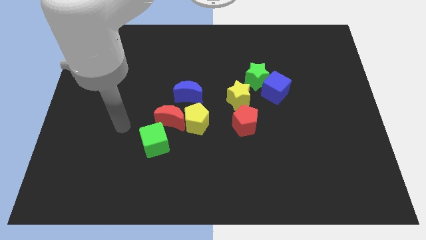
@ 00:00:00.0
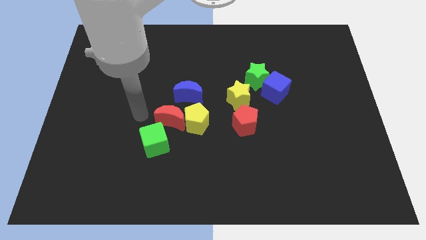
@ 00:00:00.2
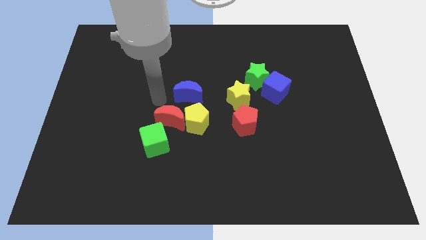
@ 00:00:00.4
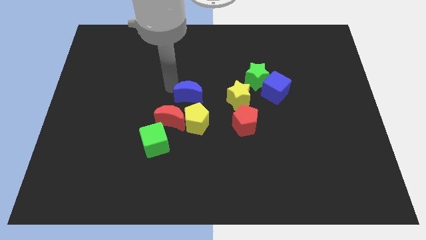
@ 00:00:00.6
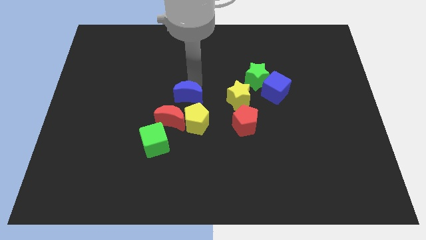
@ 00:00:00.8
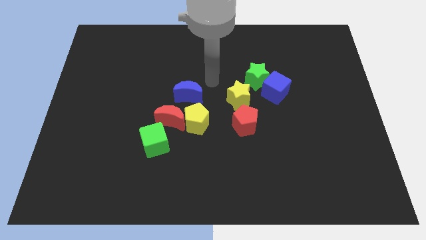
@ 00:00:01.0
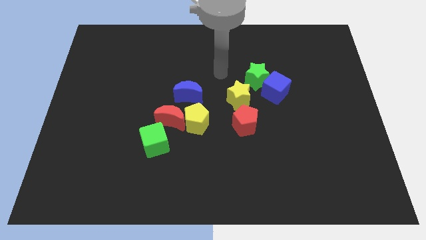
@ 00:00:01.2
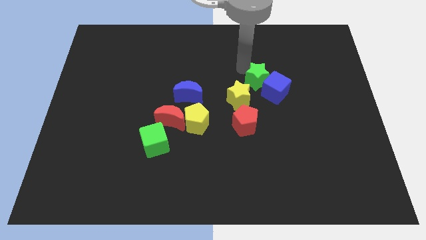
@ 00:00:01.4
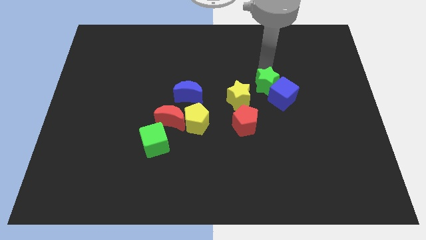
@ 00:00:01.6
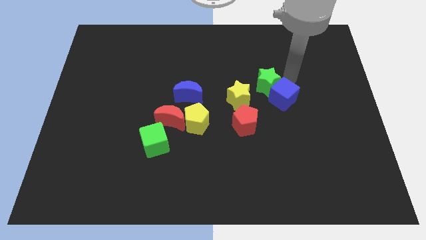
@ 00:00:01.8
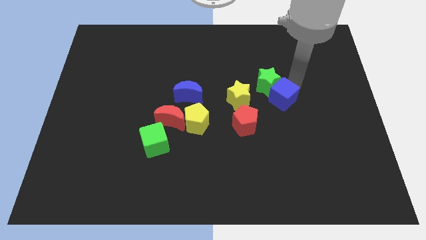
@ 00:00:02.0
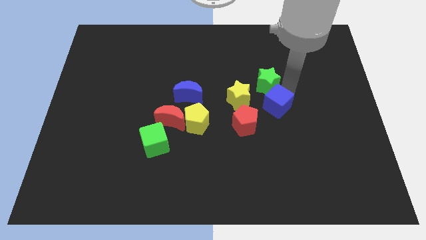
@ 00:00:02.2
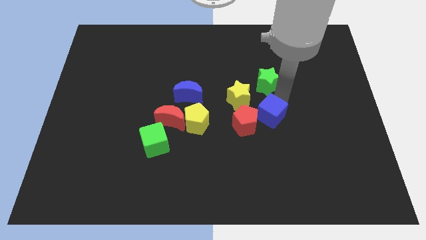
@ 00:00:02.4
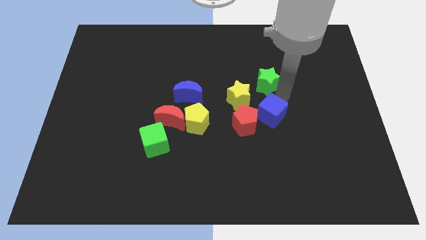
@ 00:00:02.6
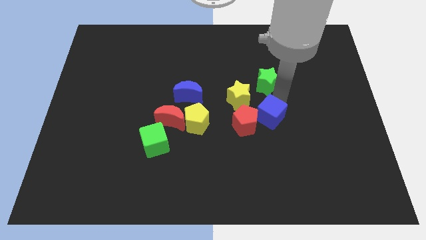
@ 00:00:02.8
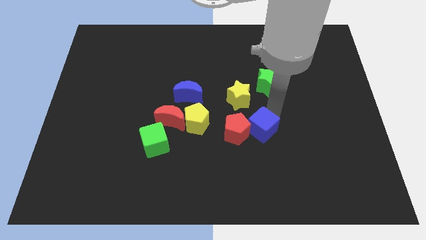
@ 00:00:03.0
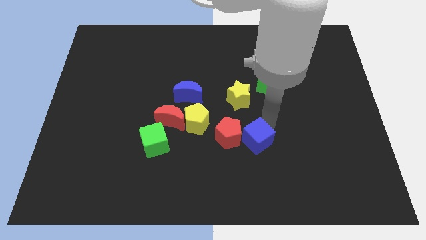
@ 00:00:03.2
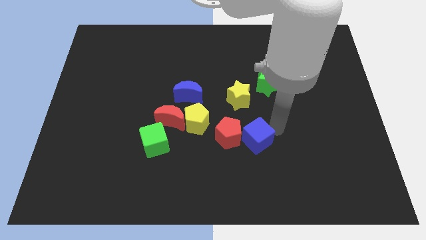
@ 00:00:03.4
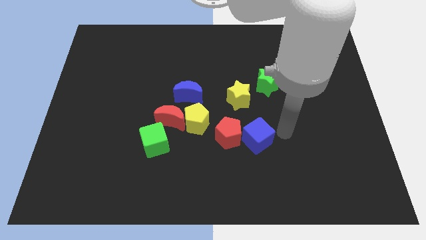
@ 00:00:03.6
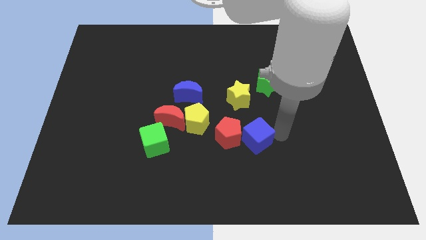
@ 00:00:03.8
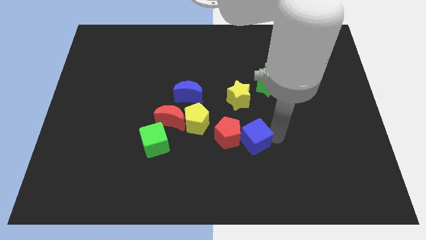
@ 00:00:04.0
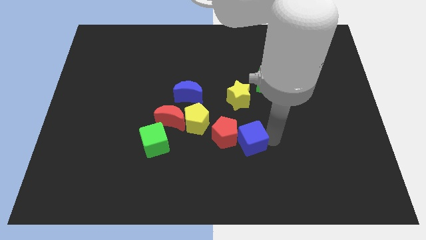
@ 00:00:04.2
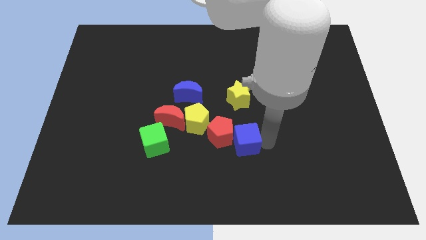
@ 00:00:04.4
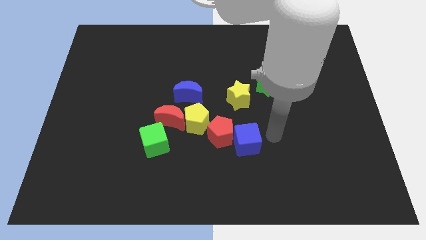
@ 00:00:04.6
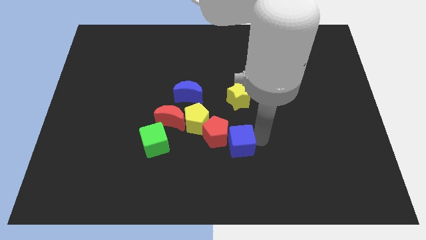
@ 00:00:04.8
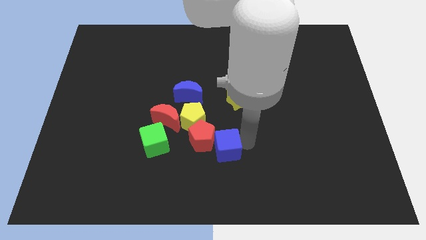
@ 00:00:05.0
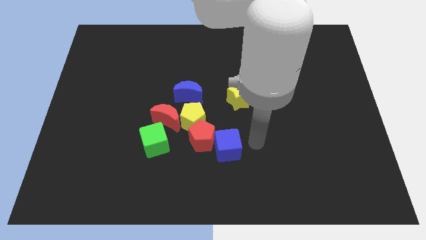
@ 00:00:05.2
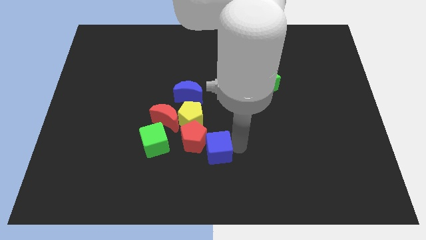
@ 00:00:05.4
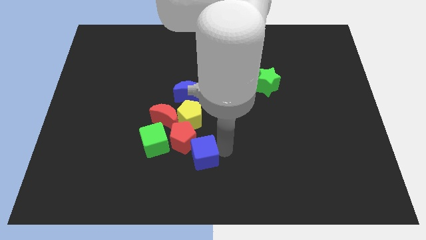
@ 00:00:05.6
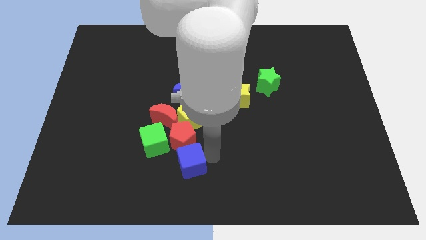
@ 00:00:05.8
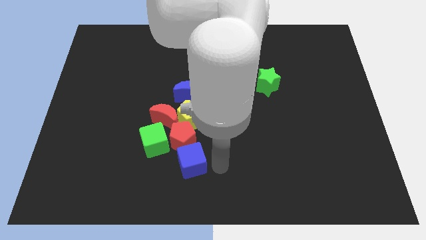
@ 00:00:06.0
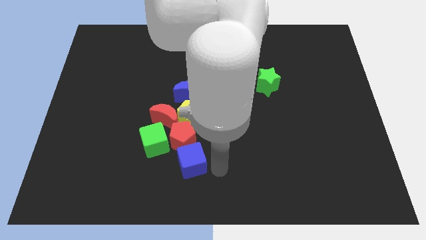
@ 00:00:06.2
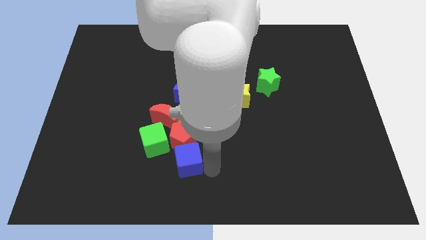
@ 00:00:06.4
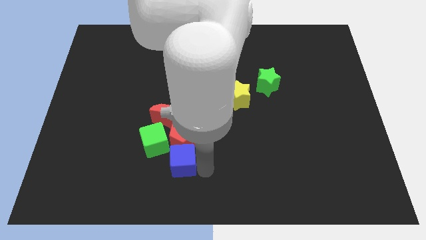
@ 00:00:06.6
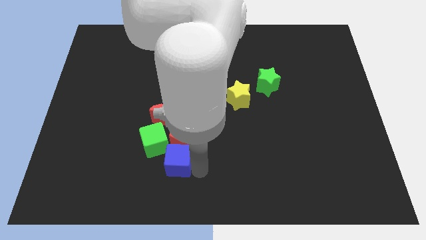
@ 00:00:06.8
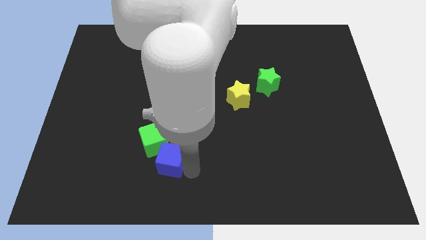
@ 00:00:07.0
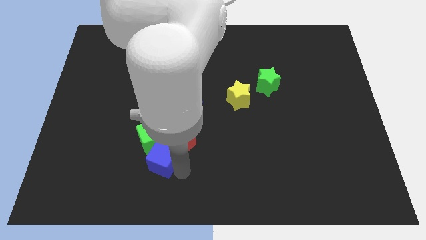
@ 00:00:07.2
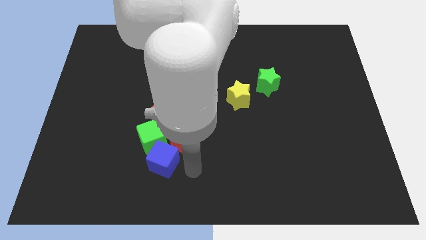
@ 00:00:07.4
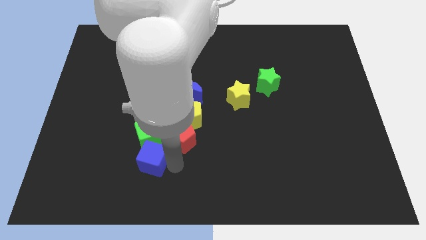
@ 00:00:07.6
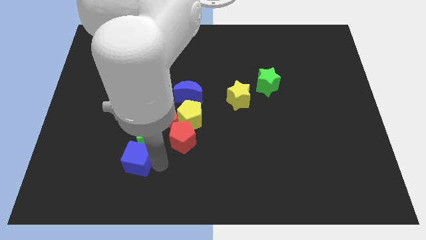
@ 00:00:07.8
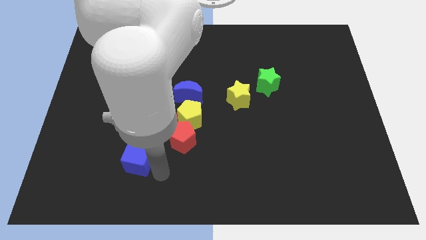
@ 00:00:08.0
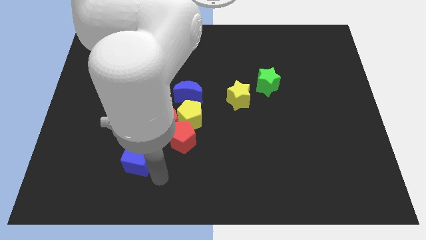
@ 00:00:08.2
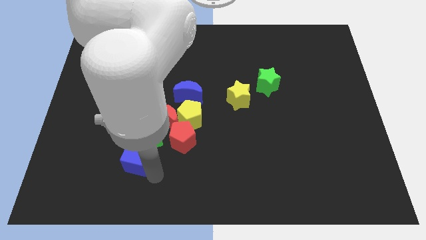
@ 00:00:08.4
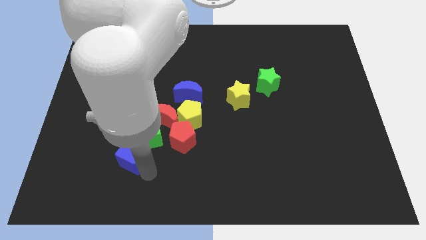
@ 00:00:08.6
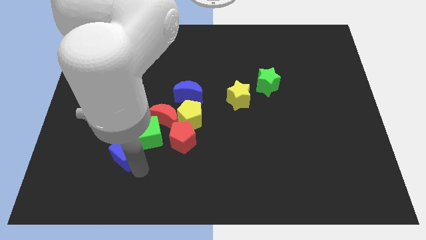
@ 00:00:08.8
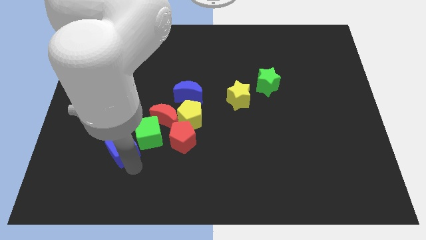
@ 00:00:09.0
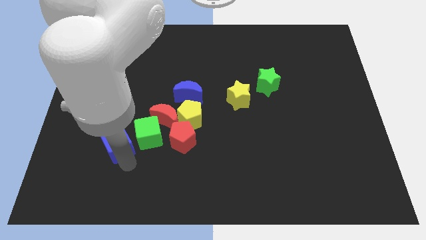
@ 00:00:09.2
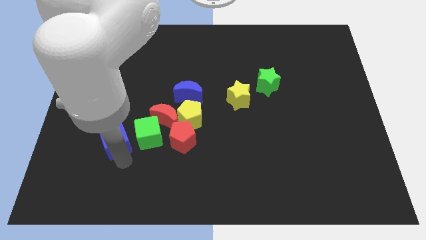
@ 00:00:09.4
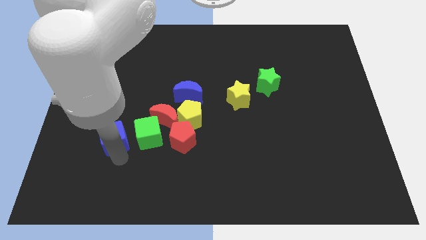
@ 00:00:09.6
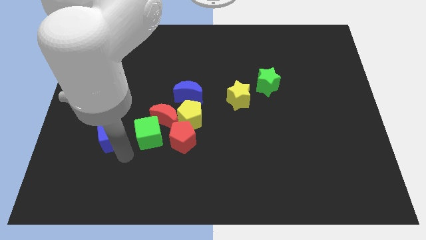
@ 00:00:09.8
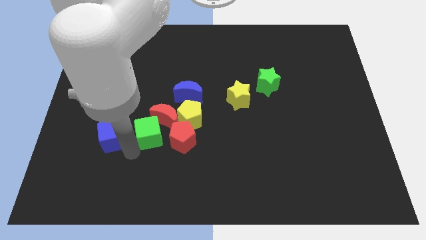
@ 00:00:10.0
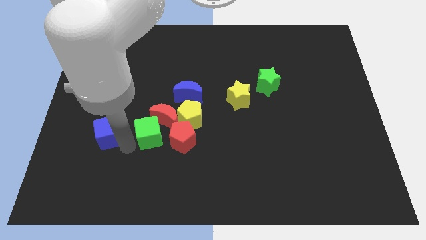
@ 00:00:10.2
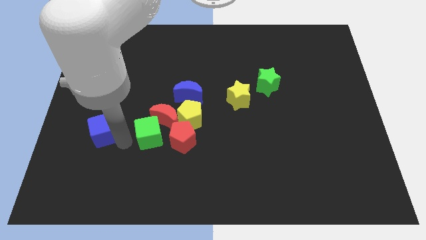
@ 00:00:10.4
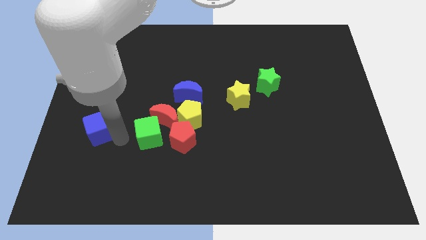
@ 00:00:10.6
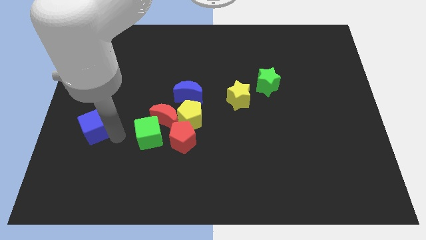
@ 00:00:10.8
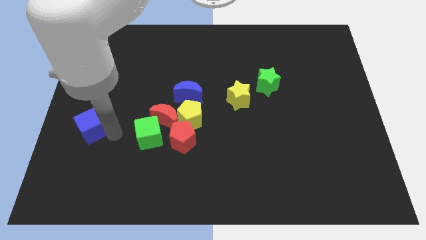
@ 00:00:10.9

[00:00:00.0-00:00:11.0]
move the blue cube to the center left
